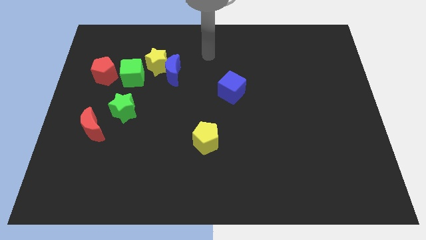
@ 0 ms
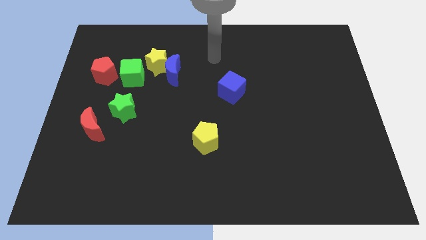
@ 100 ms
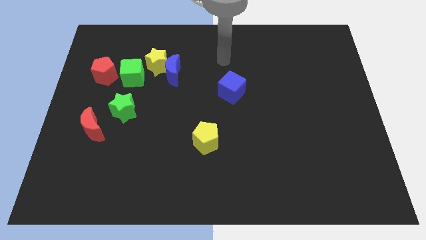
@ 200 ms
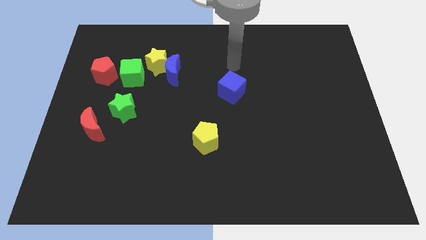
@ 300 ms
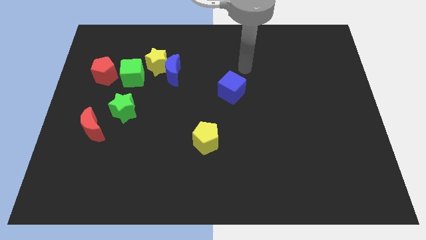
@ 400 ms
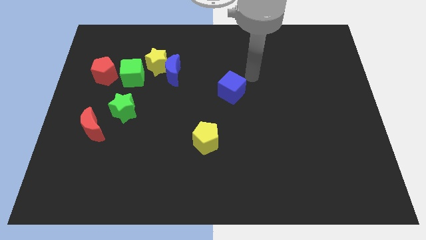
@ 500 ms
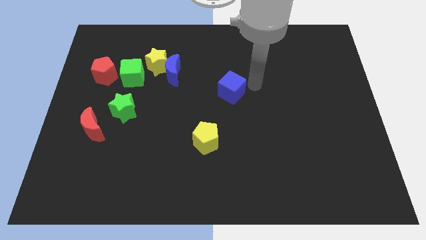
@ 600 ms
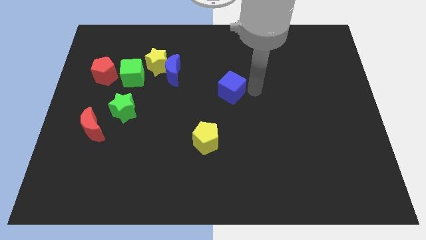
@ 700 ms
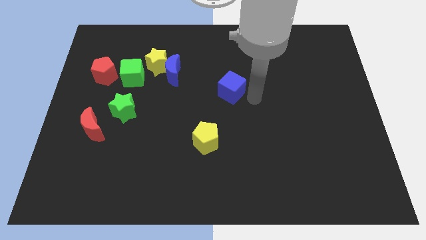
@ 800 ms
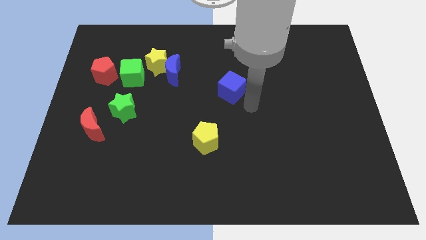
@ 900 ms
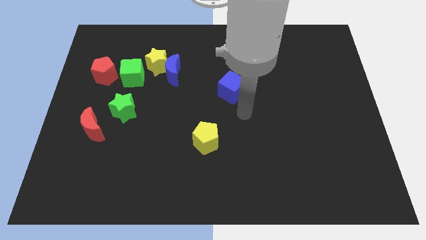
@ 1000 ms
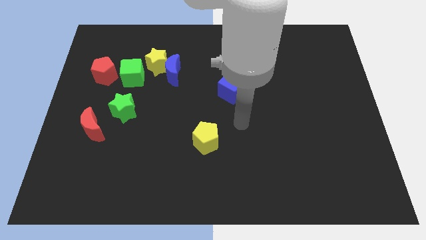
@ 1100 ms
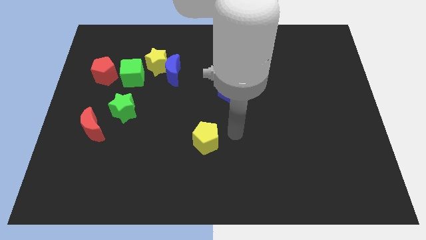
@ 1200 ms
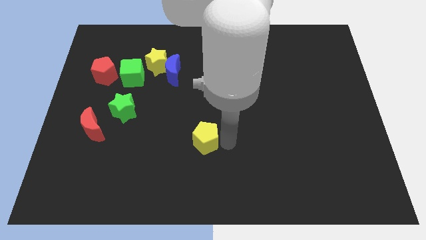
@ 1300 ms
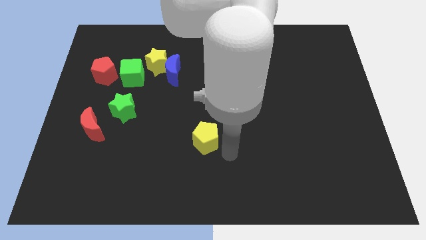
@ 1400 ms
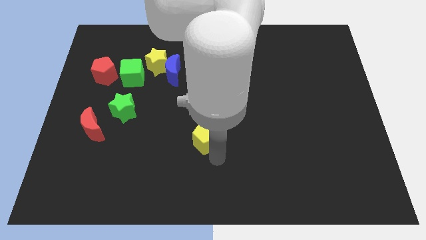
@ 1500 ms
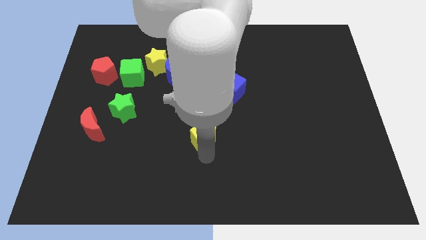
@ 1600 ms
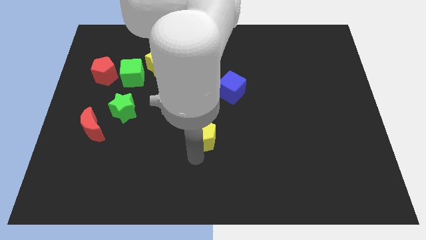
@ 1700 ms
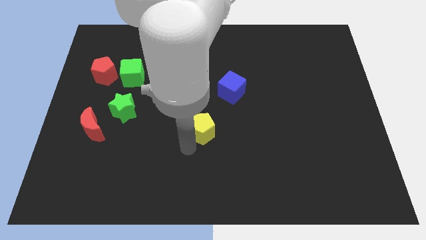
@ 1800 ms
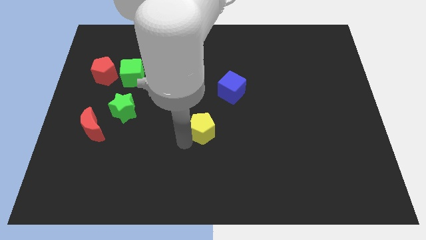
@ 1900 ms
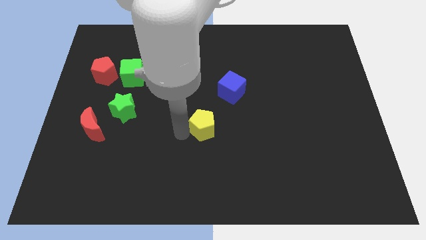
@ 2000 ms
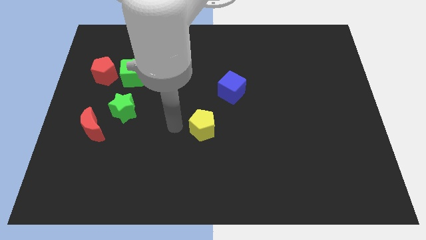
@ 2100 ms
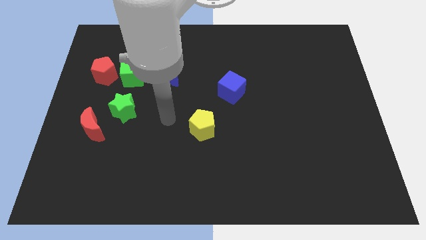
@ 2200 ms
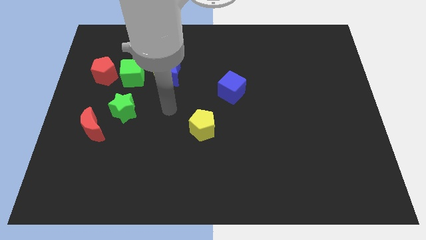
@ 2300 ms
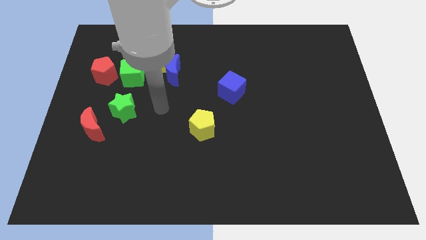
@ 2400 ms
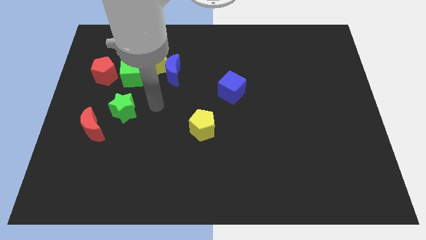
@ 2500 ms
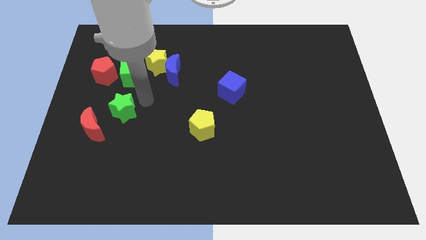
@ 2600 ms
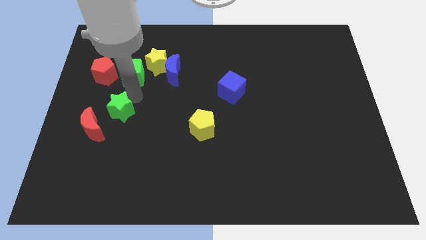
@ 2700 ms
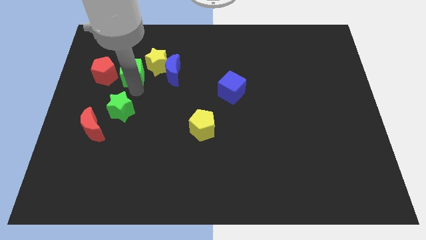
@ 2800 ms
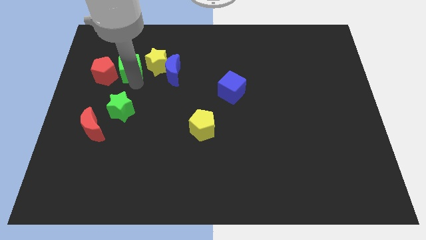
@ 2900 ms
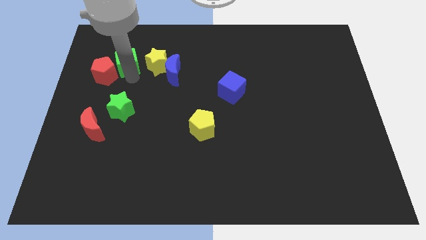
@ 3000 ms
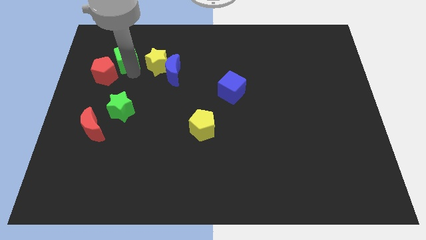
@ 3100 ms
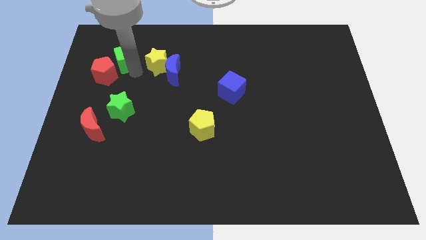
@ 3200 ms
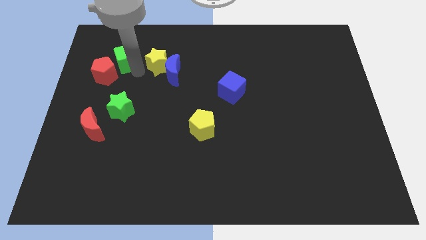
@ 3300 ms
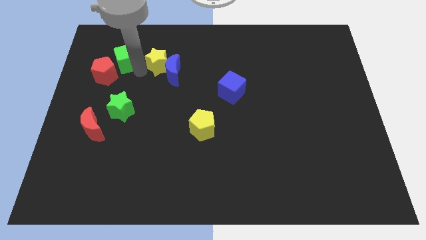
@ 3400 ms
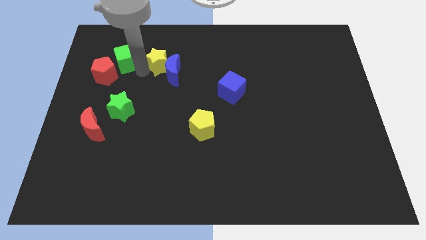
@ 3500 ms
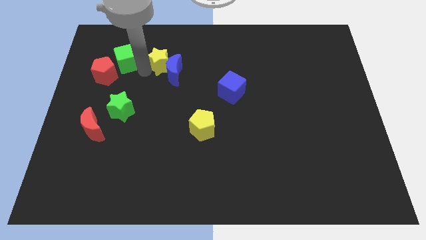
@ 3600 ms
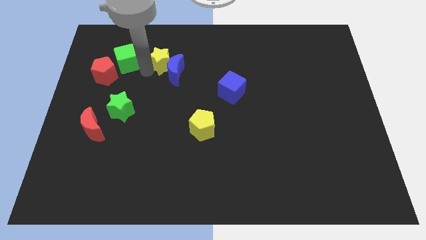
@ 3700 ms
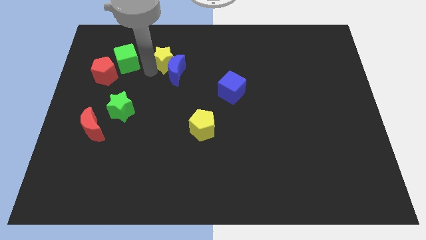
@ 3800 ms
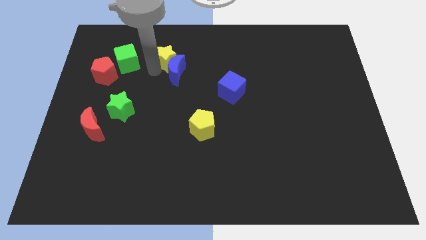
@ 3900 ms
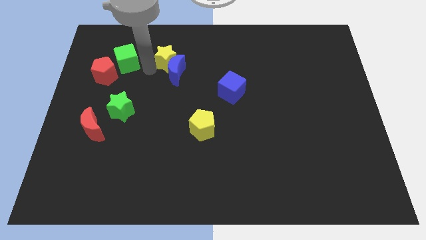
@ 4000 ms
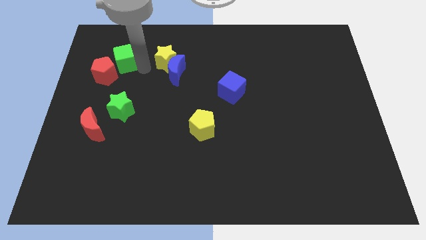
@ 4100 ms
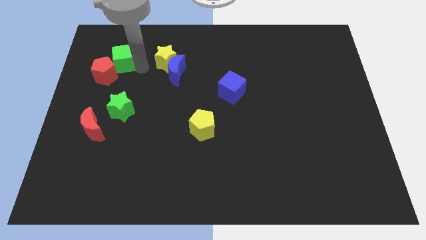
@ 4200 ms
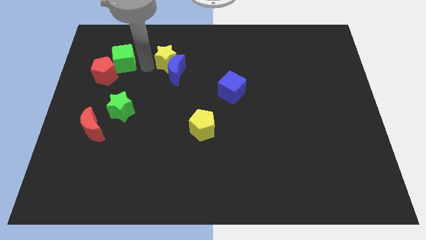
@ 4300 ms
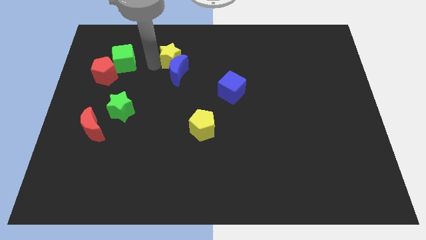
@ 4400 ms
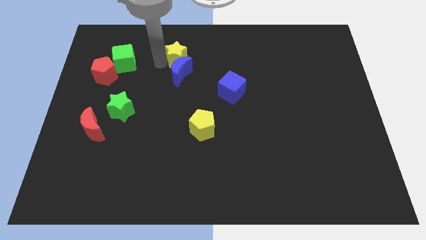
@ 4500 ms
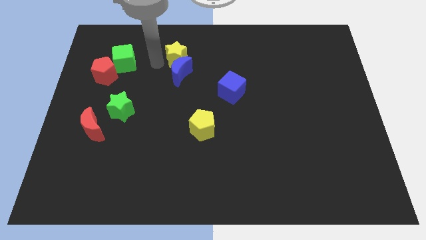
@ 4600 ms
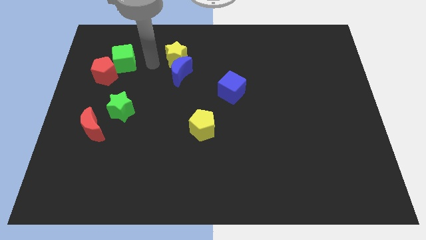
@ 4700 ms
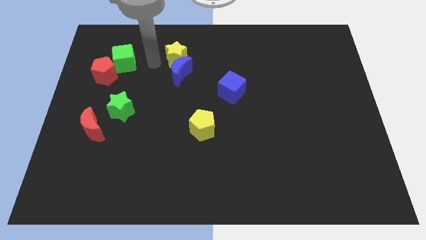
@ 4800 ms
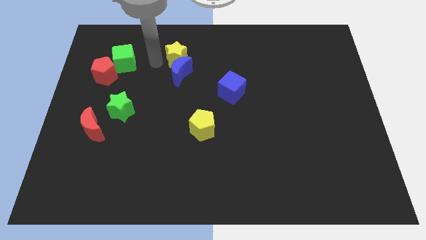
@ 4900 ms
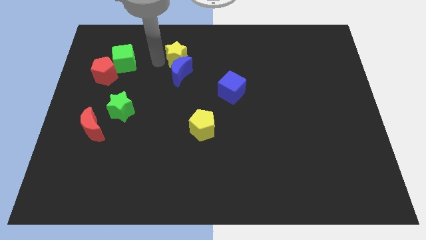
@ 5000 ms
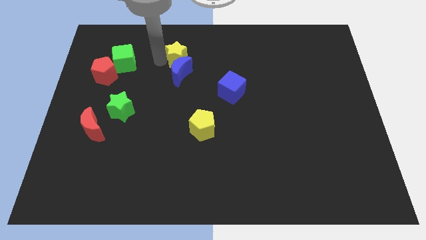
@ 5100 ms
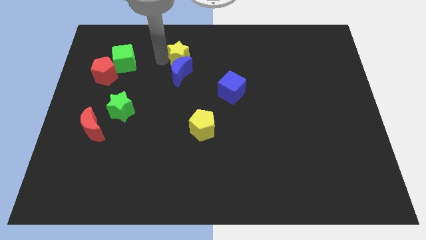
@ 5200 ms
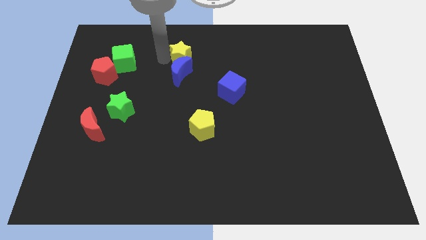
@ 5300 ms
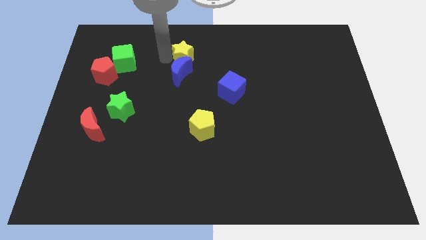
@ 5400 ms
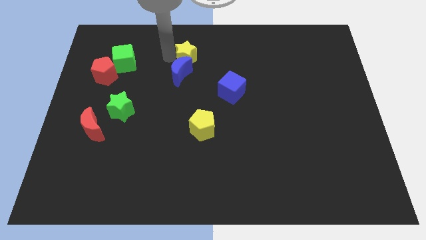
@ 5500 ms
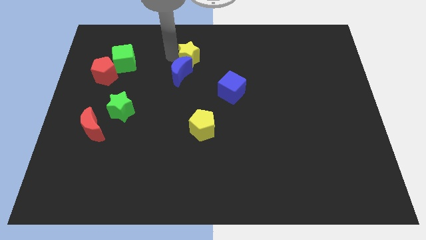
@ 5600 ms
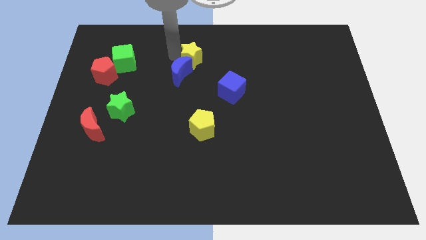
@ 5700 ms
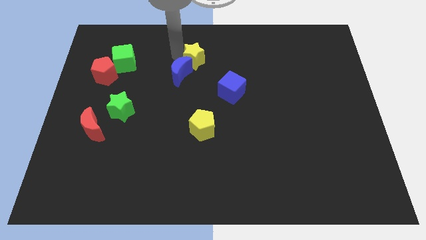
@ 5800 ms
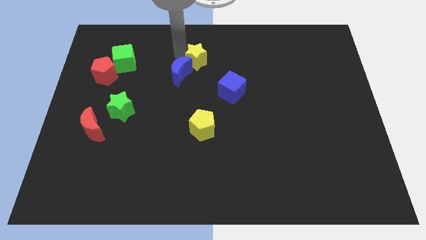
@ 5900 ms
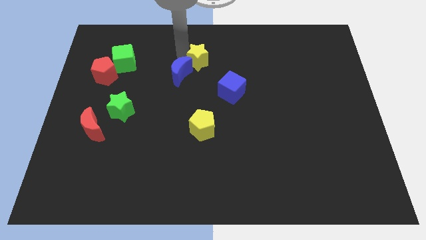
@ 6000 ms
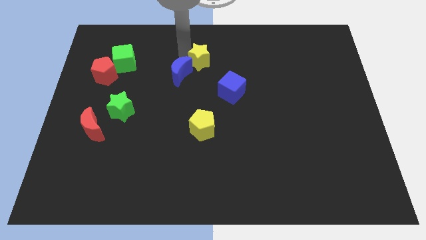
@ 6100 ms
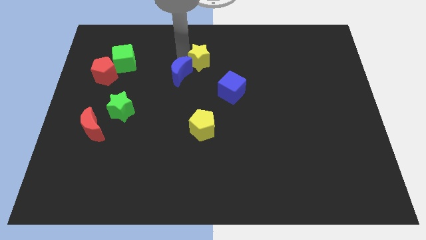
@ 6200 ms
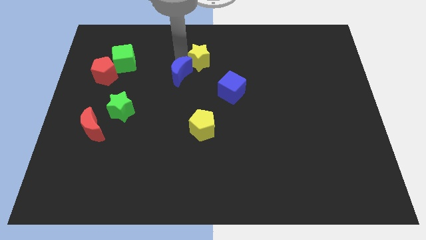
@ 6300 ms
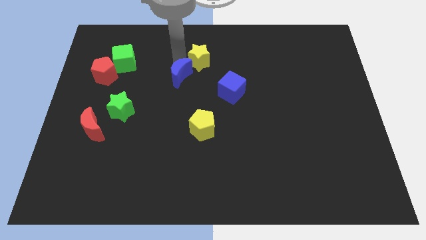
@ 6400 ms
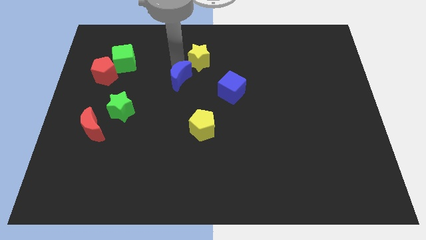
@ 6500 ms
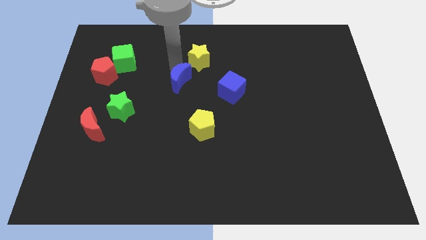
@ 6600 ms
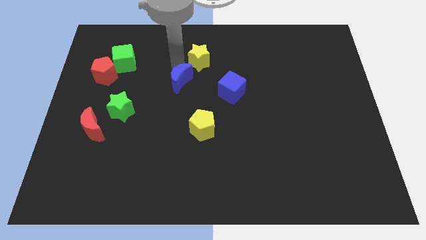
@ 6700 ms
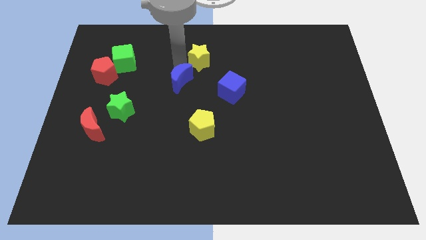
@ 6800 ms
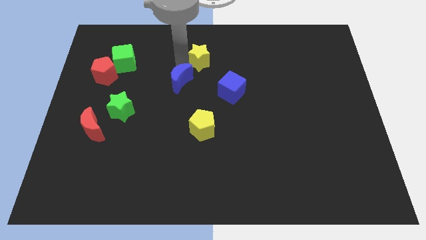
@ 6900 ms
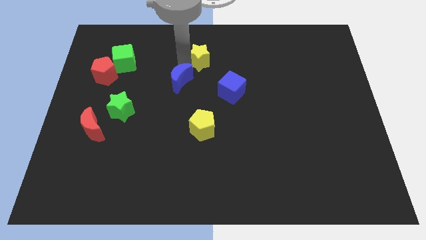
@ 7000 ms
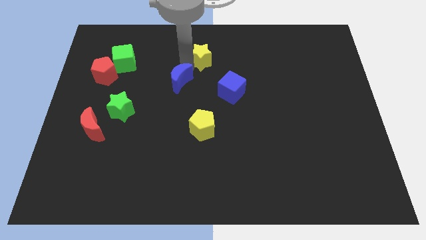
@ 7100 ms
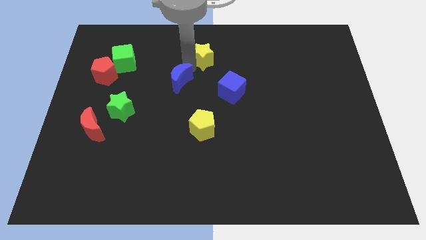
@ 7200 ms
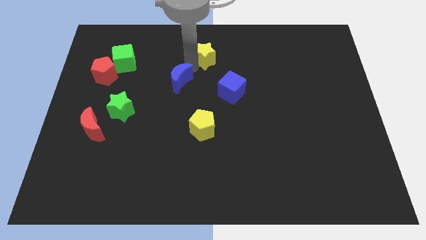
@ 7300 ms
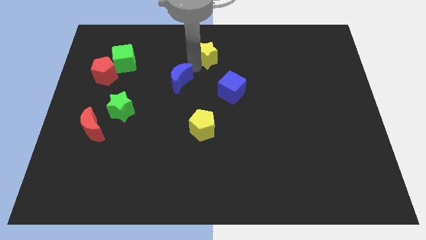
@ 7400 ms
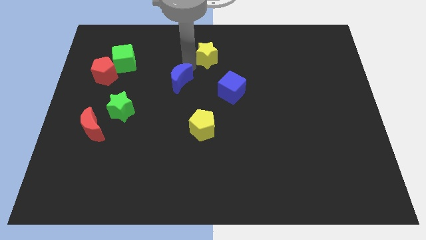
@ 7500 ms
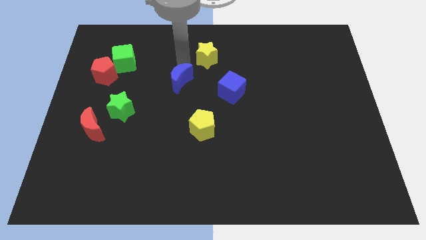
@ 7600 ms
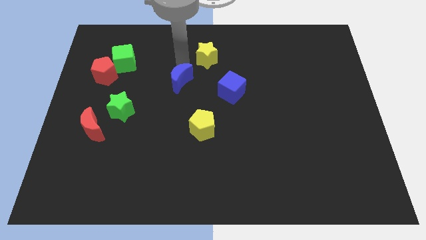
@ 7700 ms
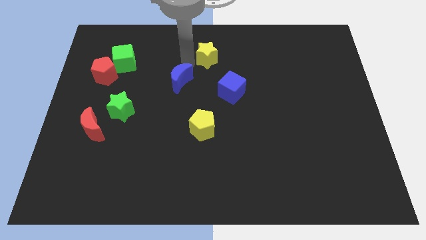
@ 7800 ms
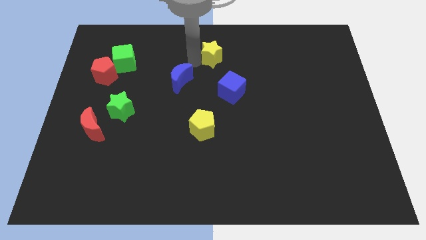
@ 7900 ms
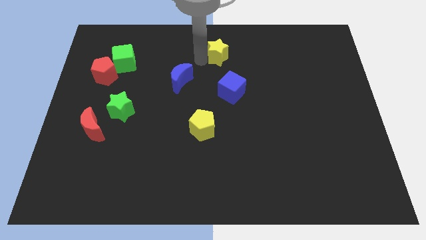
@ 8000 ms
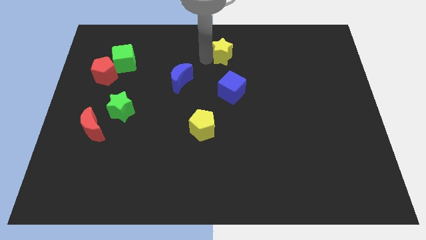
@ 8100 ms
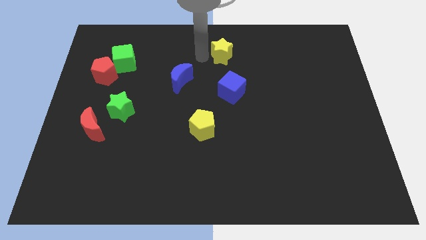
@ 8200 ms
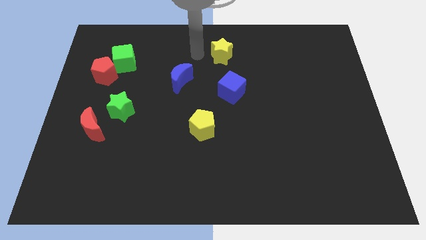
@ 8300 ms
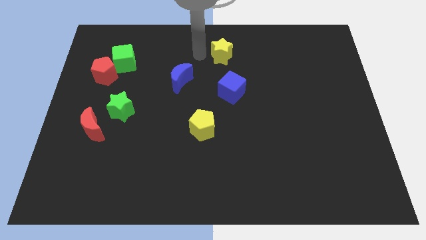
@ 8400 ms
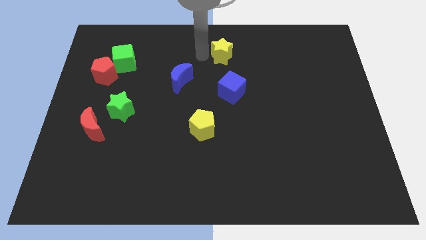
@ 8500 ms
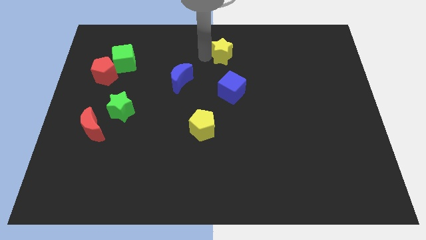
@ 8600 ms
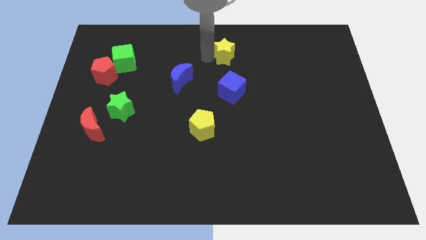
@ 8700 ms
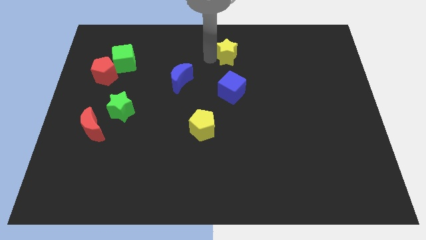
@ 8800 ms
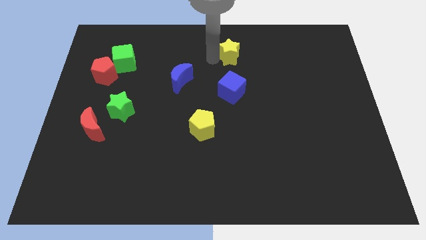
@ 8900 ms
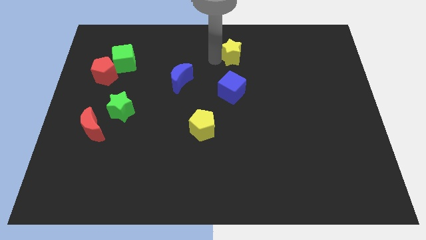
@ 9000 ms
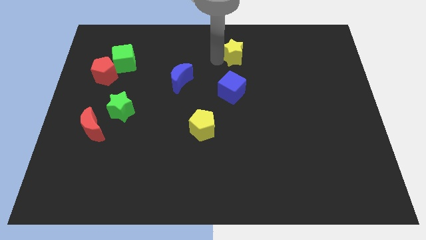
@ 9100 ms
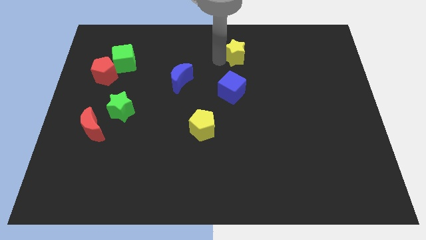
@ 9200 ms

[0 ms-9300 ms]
push the yellow star to the right
